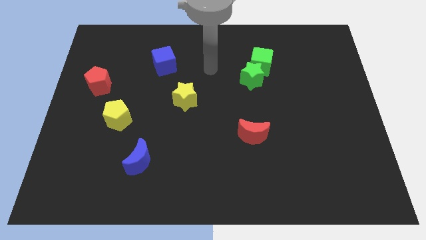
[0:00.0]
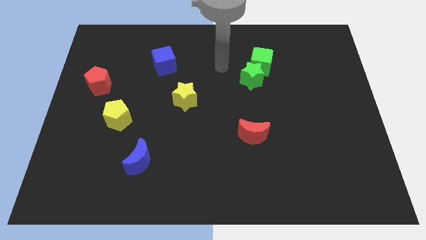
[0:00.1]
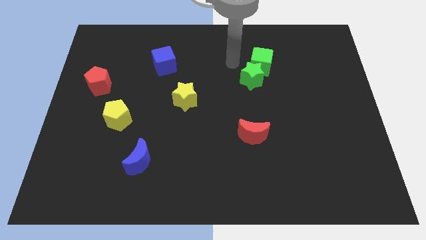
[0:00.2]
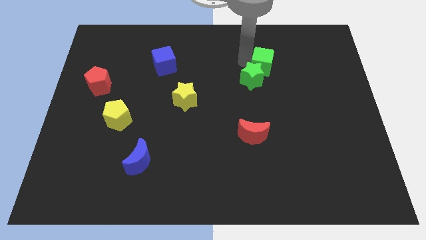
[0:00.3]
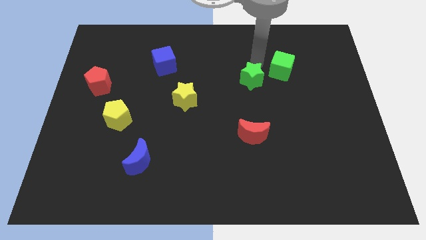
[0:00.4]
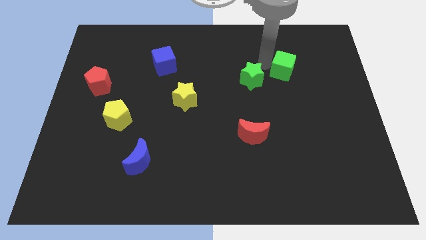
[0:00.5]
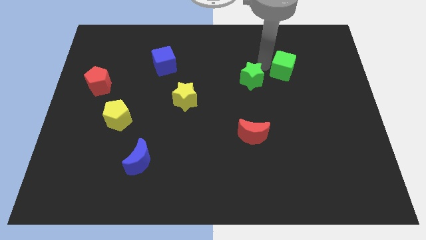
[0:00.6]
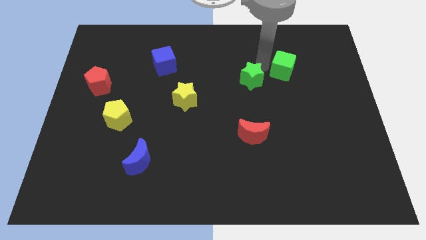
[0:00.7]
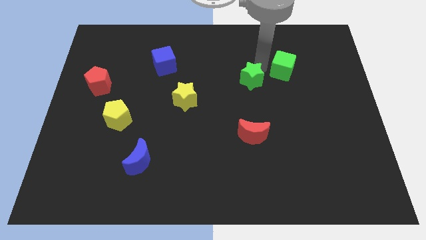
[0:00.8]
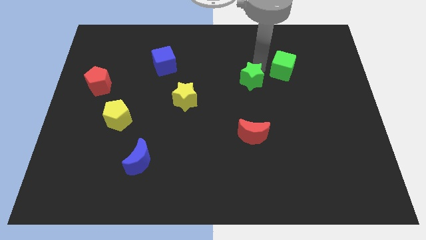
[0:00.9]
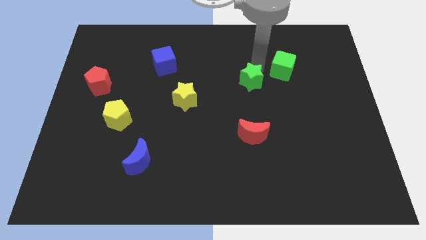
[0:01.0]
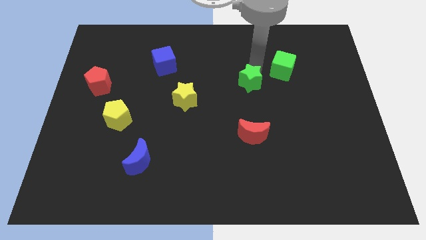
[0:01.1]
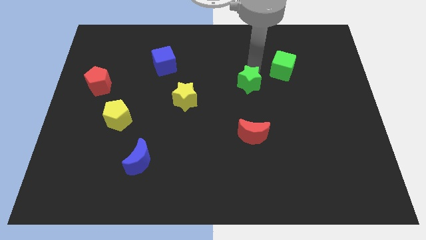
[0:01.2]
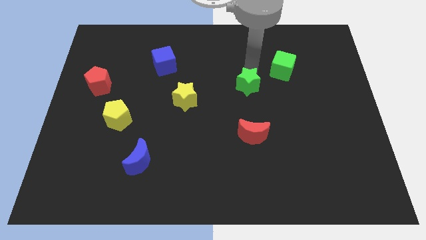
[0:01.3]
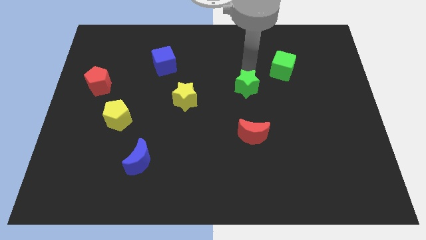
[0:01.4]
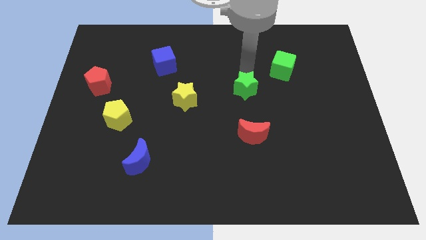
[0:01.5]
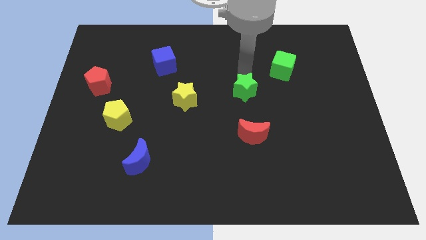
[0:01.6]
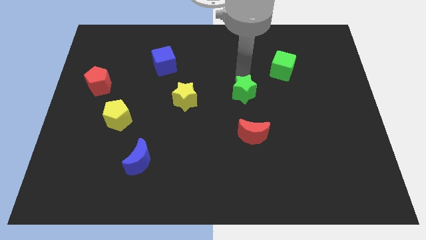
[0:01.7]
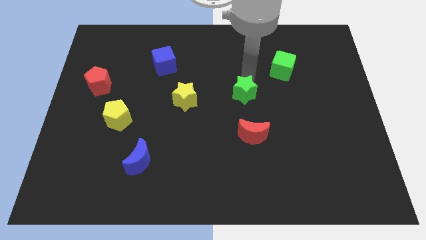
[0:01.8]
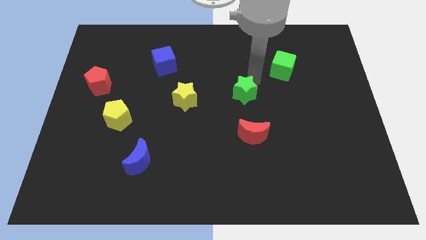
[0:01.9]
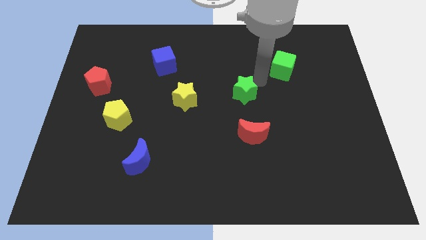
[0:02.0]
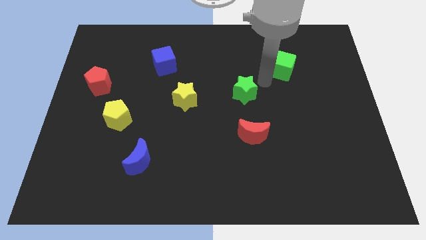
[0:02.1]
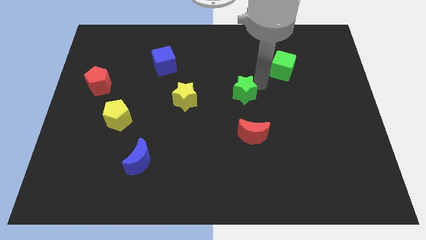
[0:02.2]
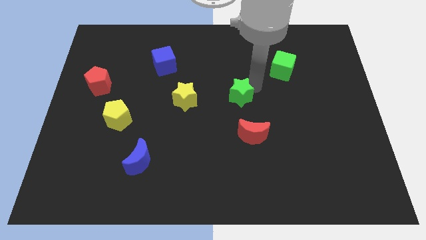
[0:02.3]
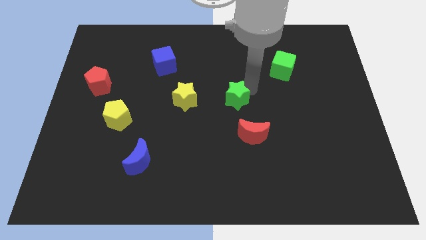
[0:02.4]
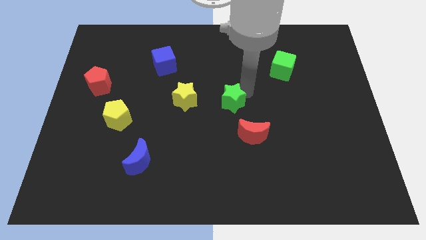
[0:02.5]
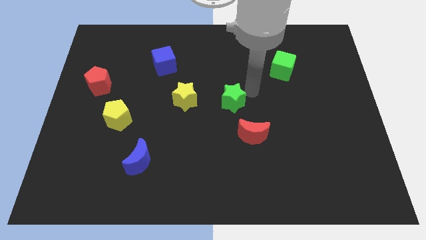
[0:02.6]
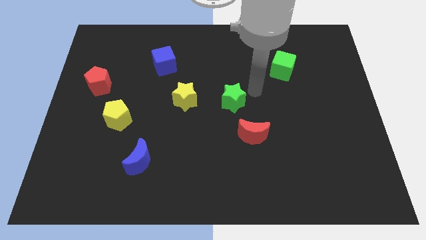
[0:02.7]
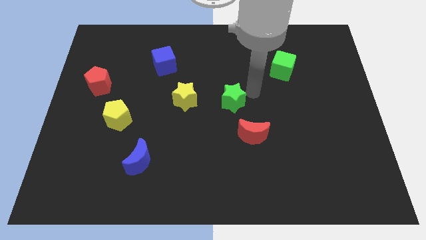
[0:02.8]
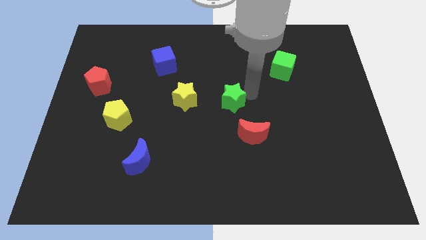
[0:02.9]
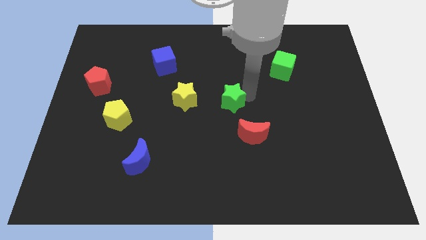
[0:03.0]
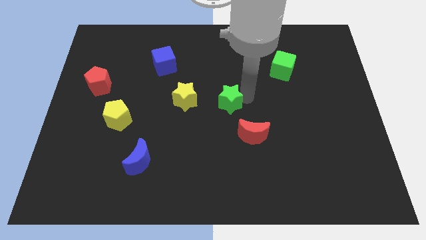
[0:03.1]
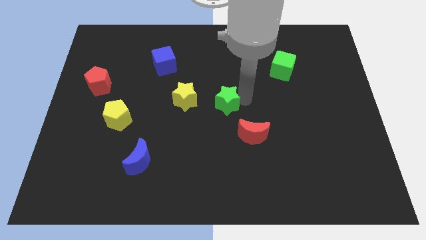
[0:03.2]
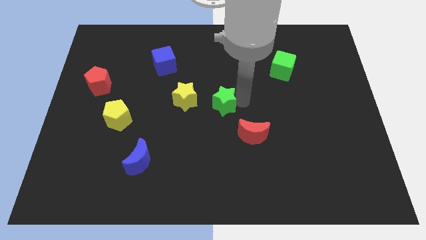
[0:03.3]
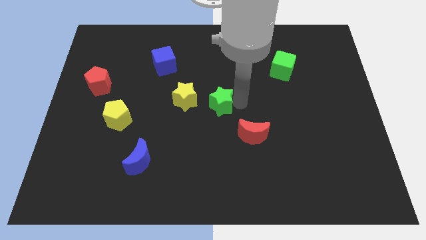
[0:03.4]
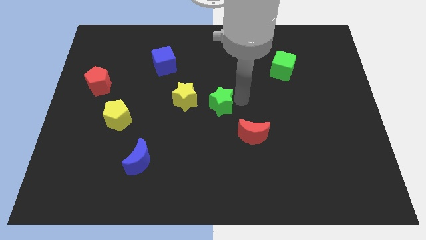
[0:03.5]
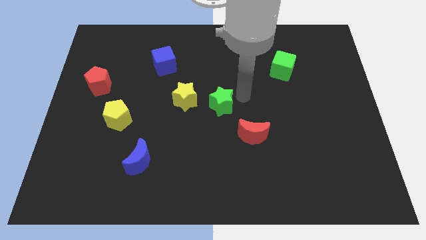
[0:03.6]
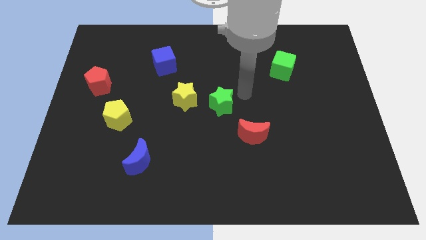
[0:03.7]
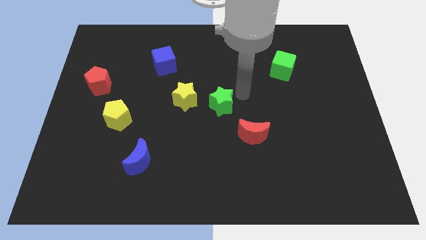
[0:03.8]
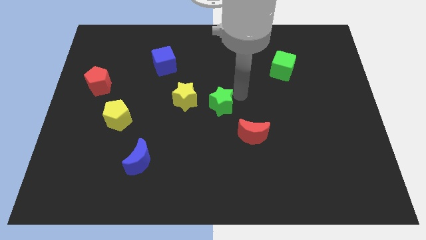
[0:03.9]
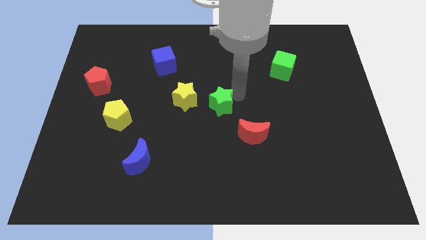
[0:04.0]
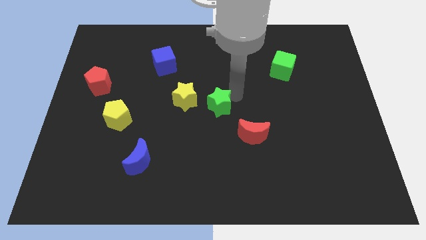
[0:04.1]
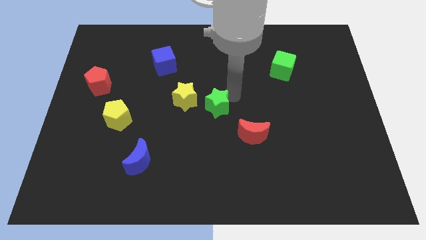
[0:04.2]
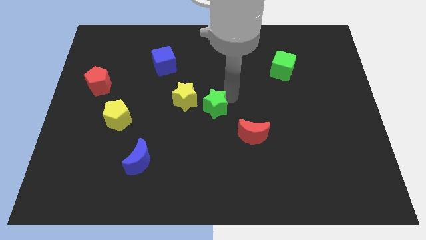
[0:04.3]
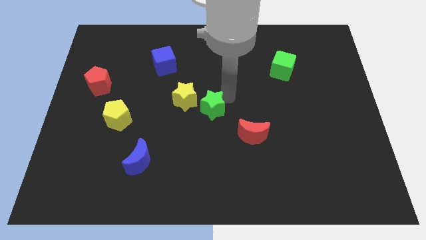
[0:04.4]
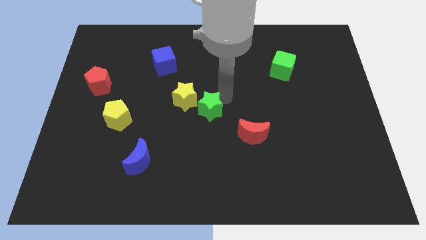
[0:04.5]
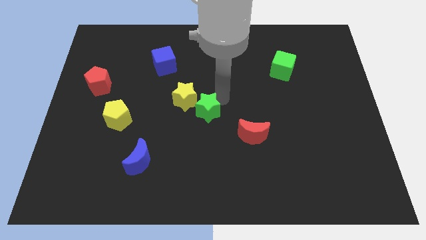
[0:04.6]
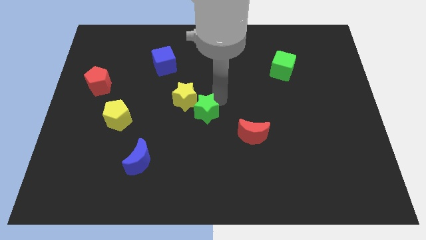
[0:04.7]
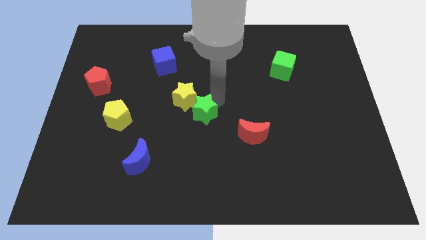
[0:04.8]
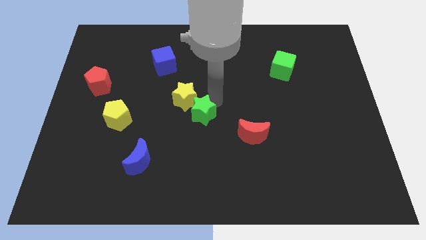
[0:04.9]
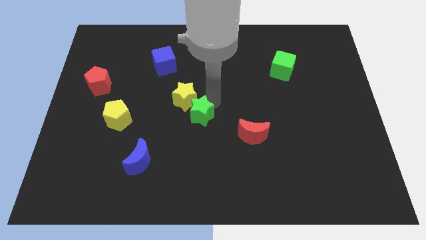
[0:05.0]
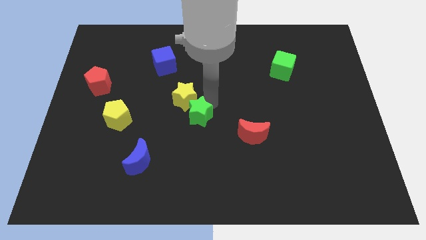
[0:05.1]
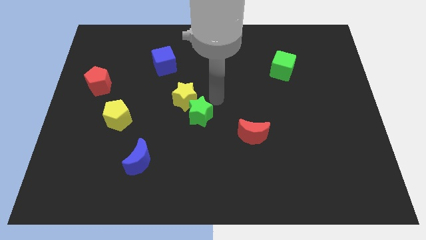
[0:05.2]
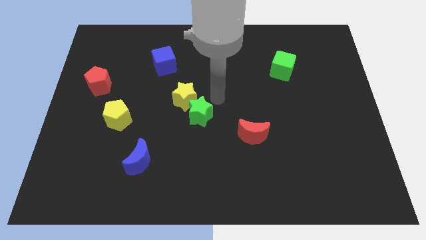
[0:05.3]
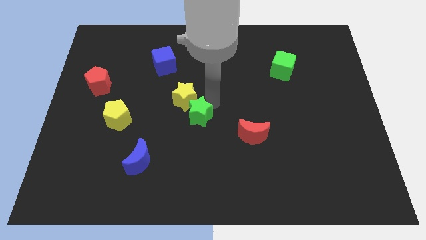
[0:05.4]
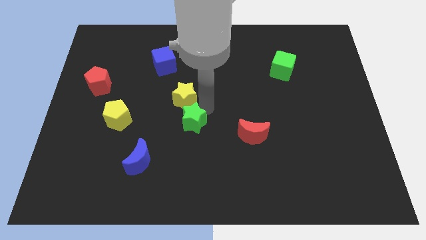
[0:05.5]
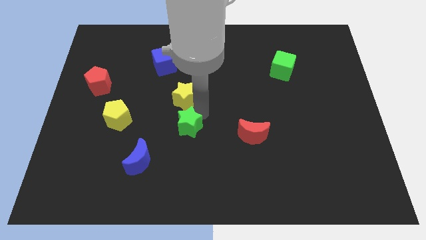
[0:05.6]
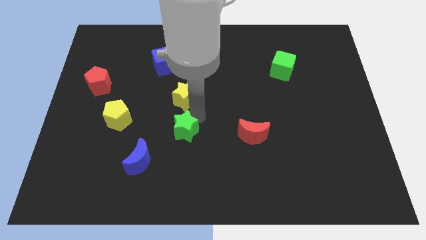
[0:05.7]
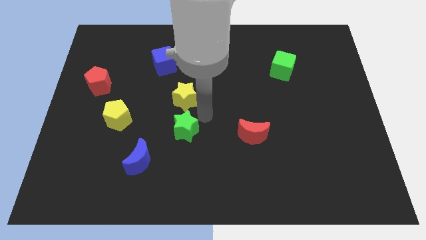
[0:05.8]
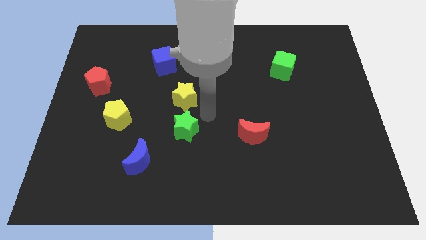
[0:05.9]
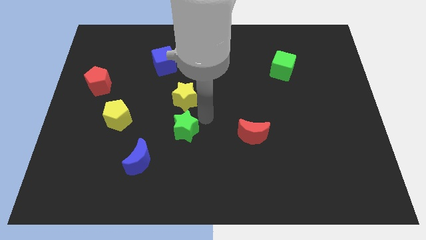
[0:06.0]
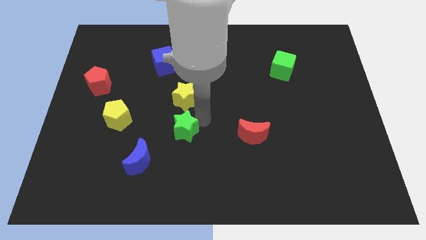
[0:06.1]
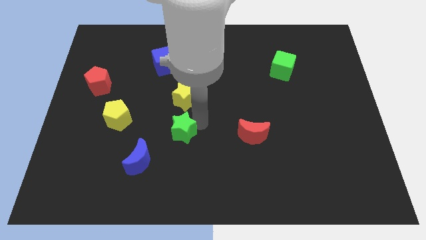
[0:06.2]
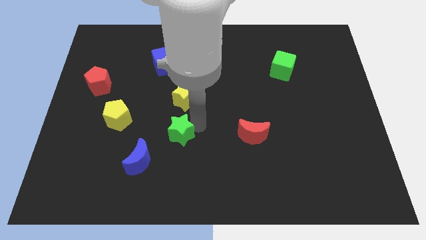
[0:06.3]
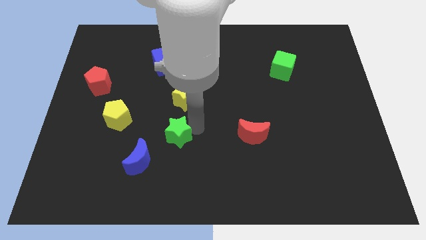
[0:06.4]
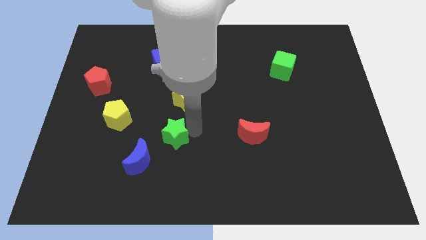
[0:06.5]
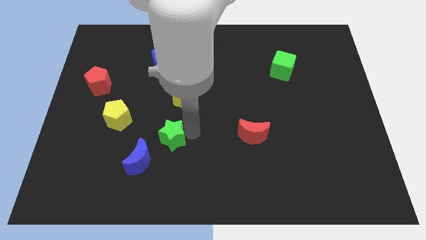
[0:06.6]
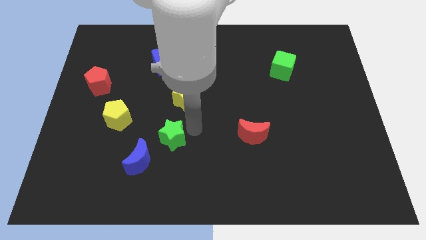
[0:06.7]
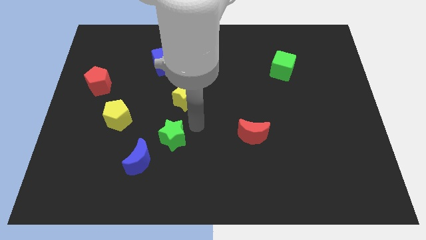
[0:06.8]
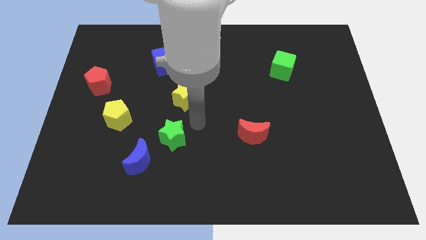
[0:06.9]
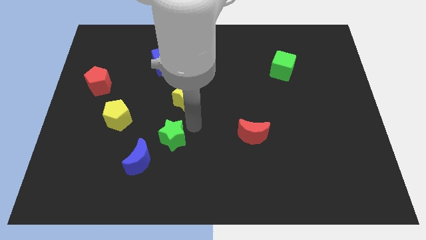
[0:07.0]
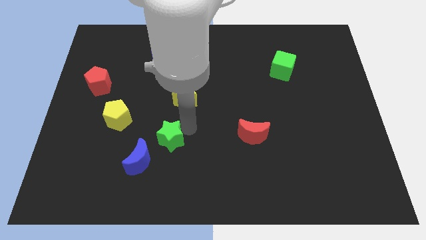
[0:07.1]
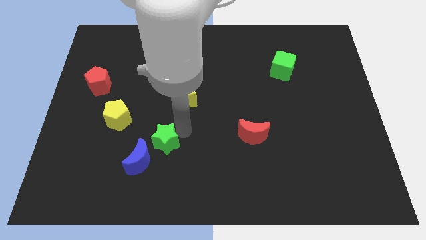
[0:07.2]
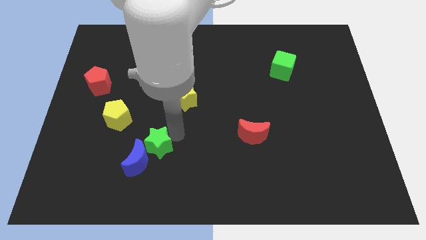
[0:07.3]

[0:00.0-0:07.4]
slide the green star close to the blue moon
